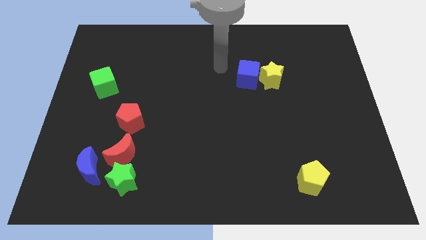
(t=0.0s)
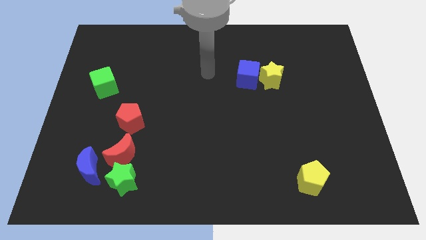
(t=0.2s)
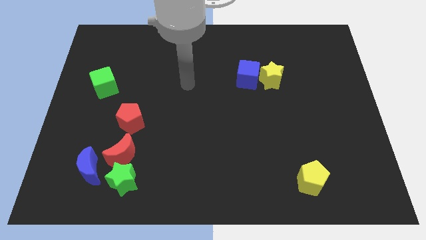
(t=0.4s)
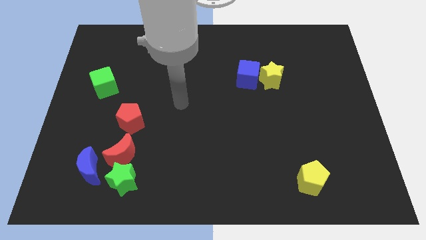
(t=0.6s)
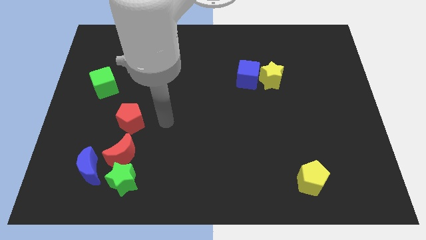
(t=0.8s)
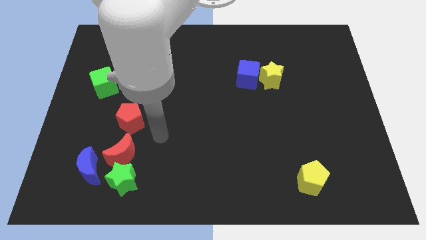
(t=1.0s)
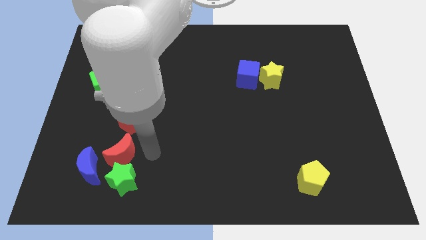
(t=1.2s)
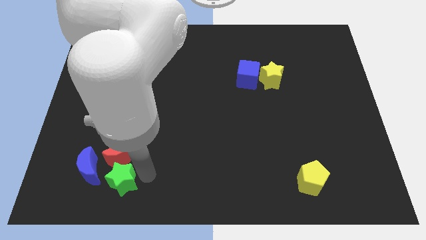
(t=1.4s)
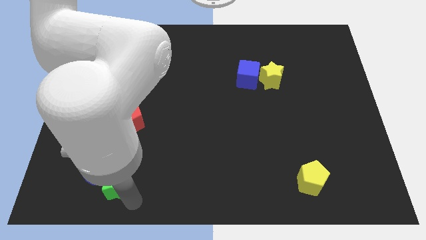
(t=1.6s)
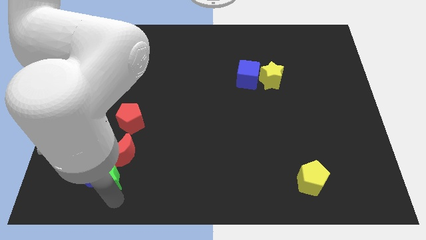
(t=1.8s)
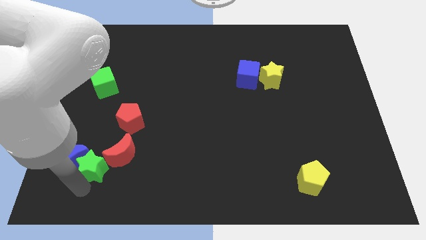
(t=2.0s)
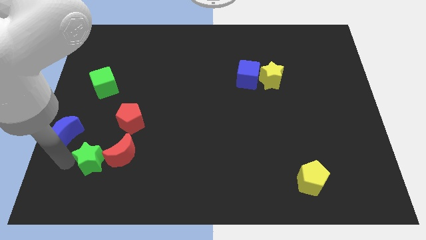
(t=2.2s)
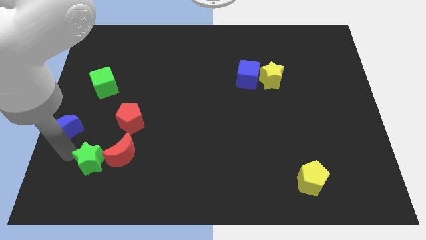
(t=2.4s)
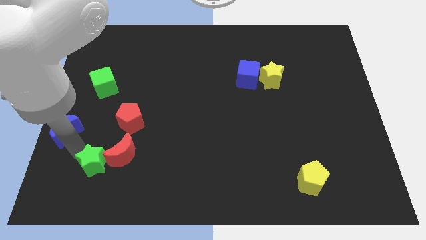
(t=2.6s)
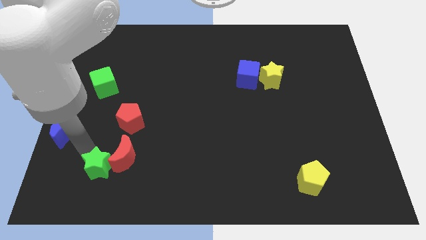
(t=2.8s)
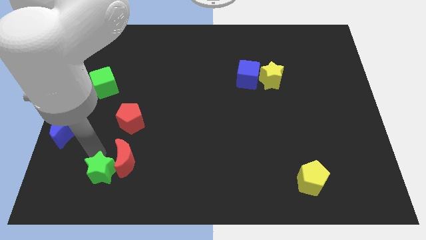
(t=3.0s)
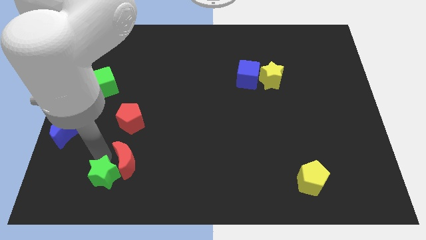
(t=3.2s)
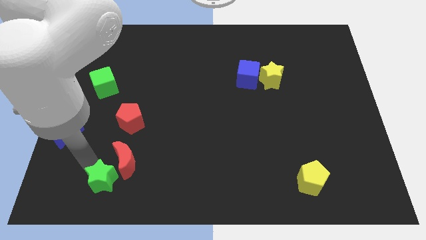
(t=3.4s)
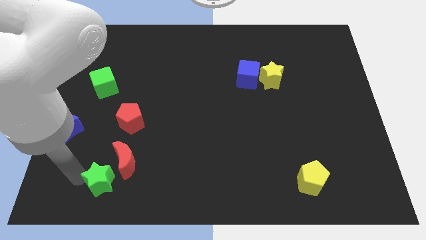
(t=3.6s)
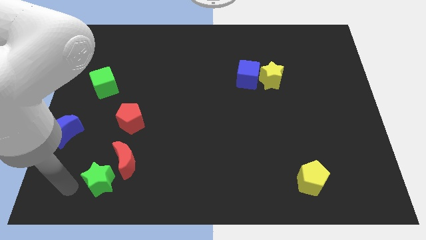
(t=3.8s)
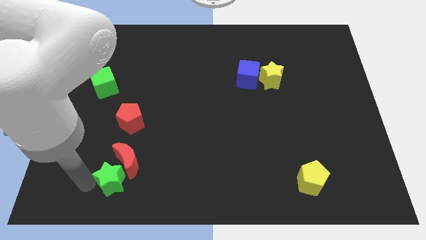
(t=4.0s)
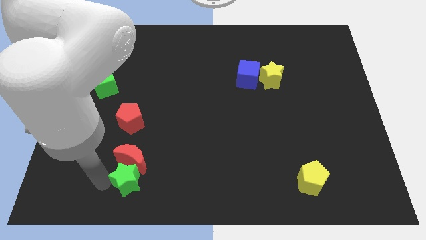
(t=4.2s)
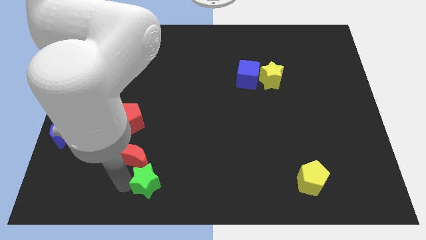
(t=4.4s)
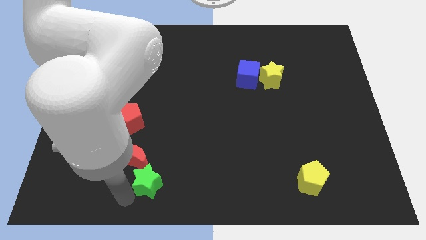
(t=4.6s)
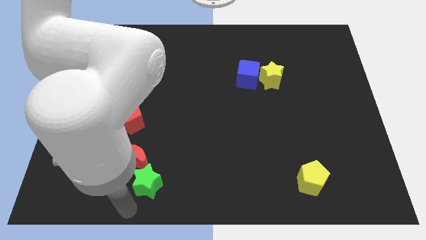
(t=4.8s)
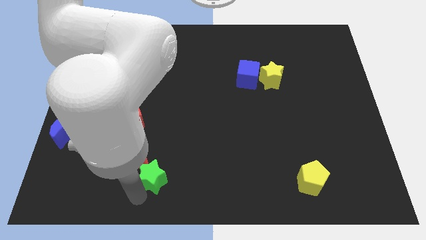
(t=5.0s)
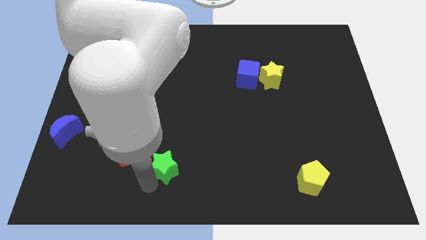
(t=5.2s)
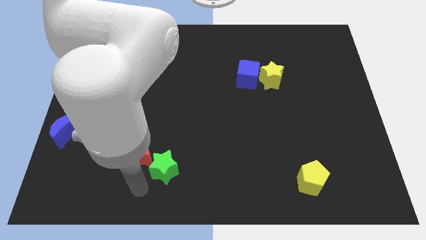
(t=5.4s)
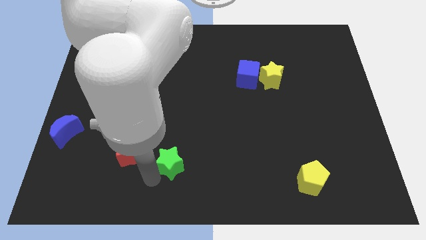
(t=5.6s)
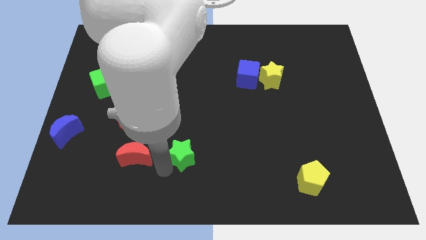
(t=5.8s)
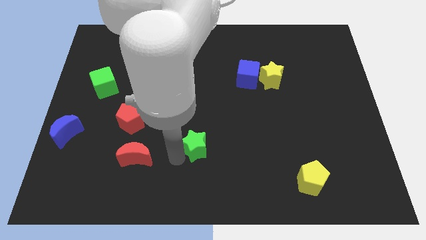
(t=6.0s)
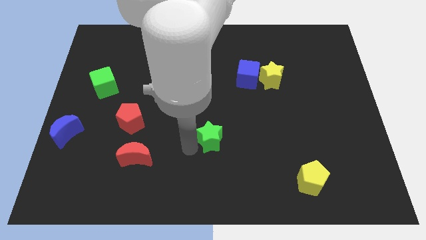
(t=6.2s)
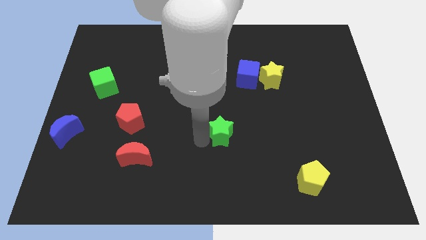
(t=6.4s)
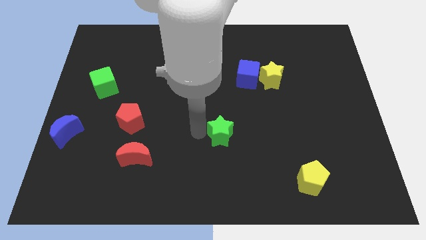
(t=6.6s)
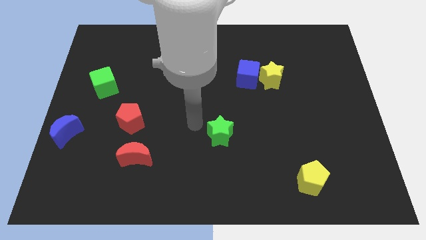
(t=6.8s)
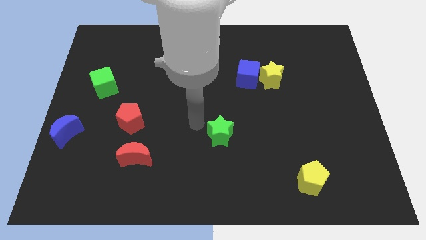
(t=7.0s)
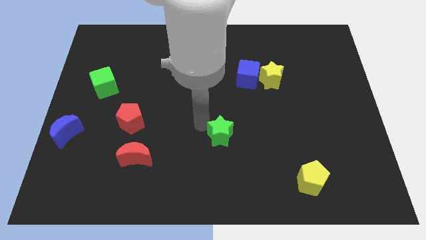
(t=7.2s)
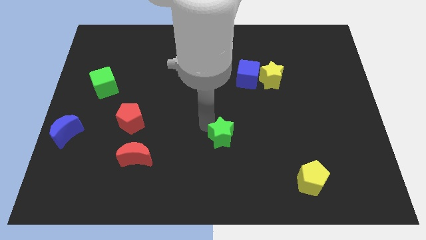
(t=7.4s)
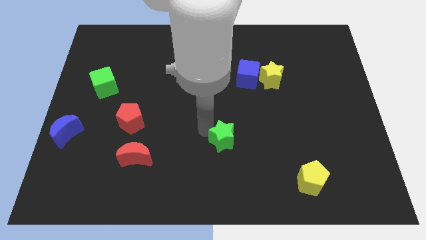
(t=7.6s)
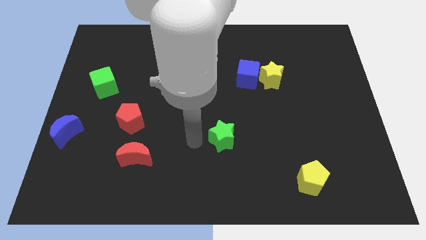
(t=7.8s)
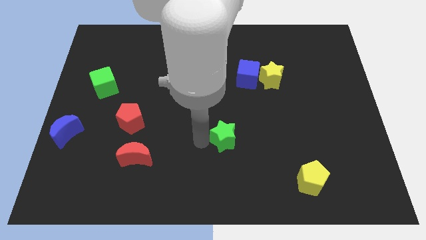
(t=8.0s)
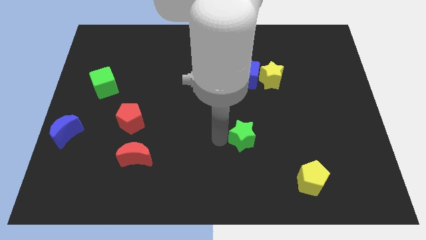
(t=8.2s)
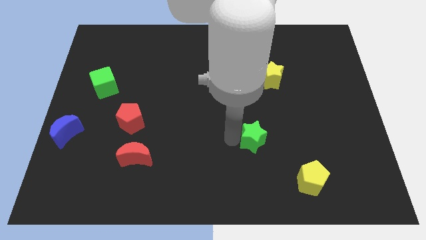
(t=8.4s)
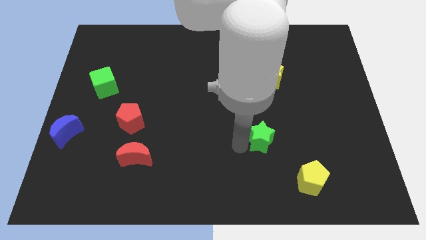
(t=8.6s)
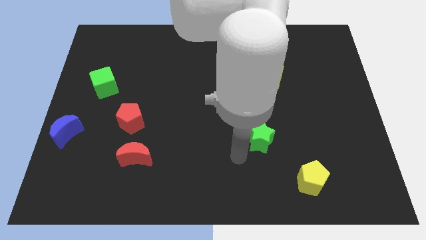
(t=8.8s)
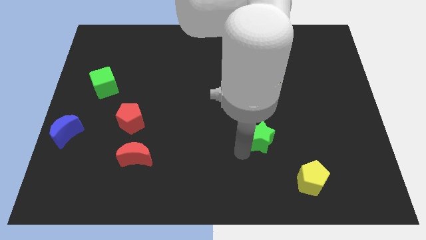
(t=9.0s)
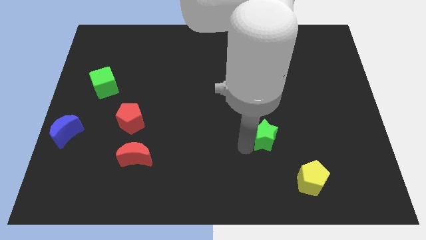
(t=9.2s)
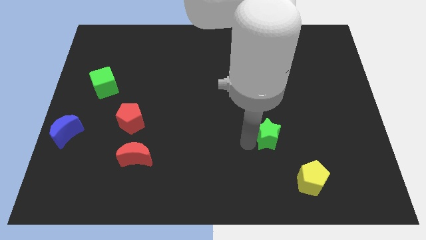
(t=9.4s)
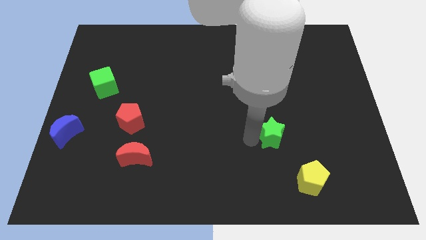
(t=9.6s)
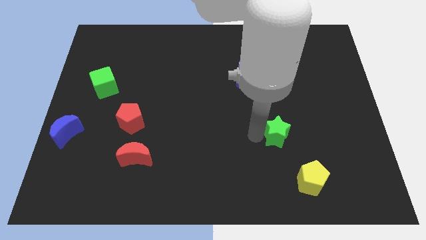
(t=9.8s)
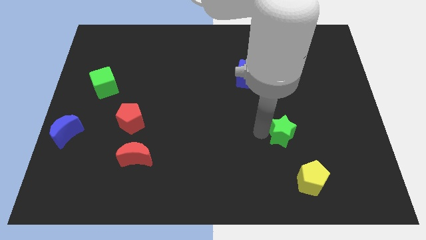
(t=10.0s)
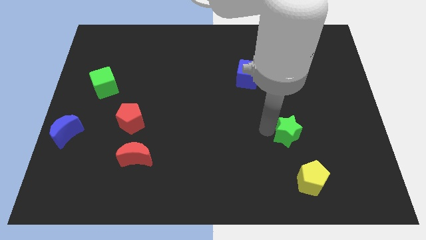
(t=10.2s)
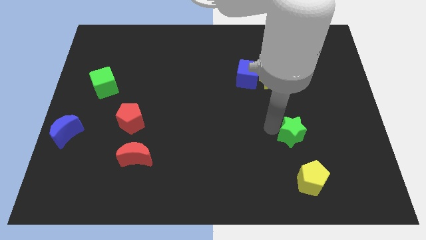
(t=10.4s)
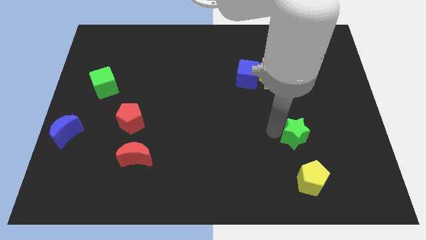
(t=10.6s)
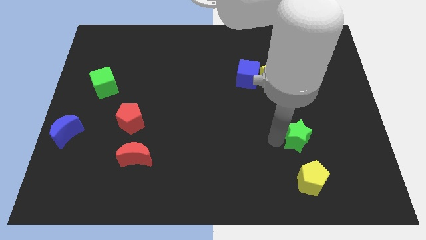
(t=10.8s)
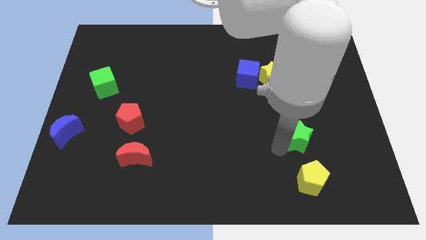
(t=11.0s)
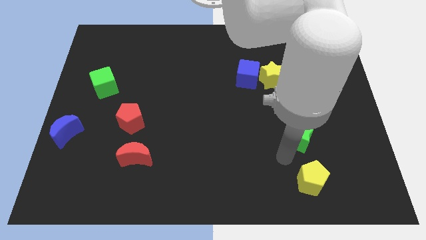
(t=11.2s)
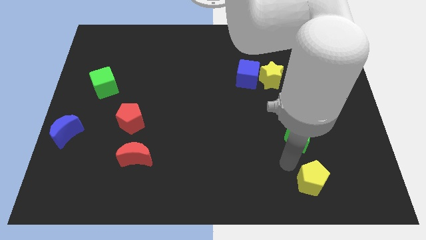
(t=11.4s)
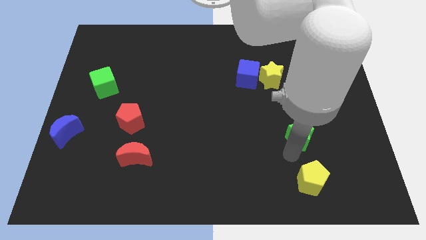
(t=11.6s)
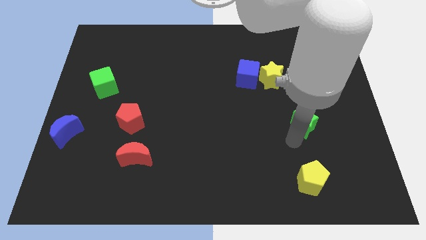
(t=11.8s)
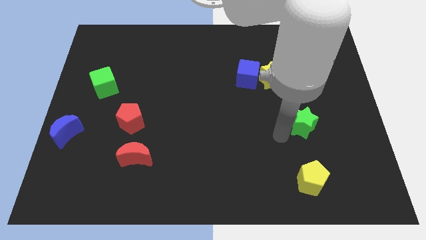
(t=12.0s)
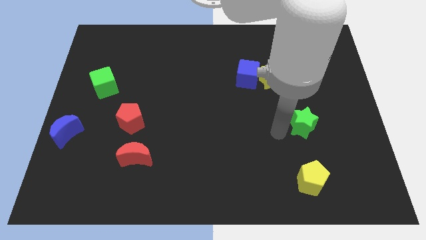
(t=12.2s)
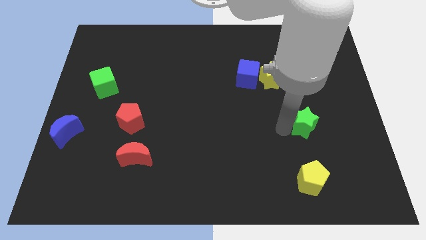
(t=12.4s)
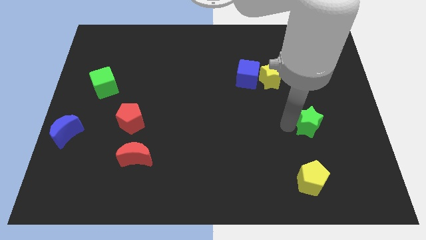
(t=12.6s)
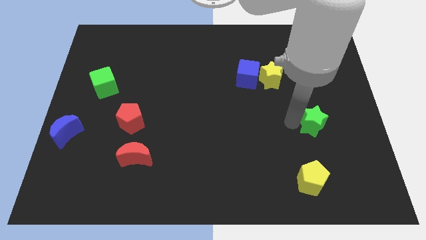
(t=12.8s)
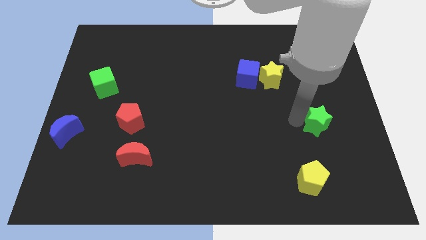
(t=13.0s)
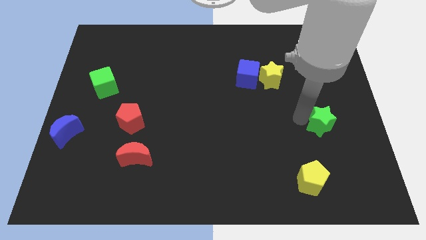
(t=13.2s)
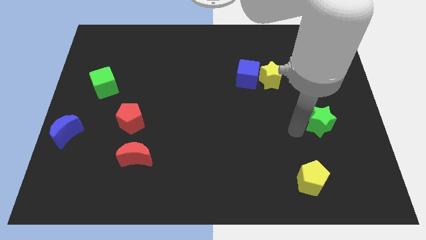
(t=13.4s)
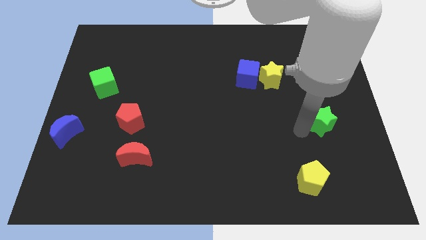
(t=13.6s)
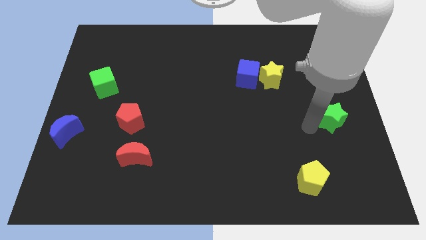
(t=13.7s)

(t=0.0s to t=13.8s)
push the green star to the right side

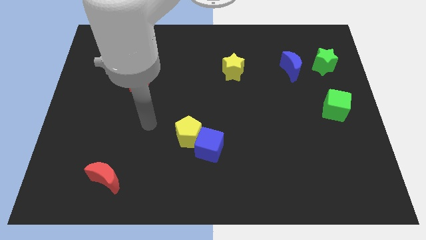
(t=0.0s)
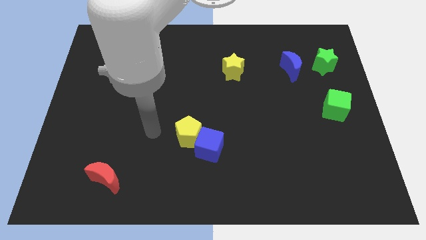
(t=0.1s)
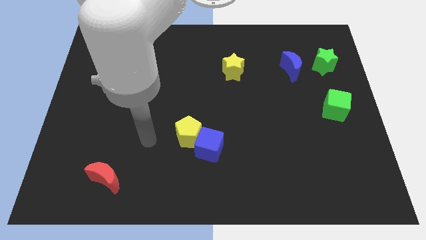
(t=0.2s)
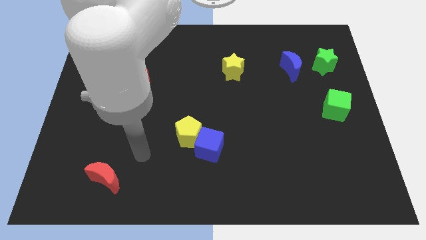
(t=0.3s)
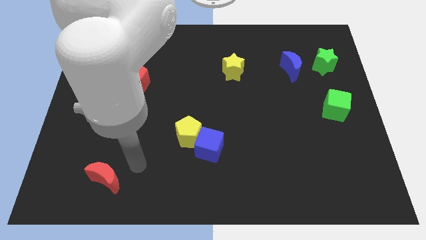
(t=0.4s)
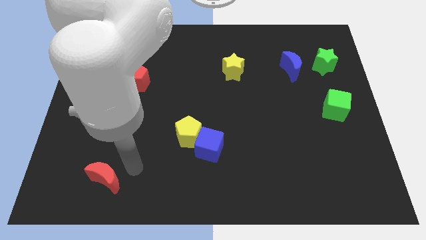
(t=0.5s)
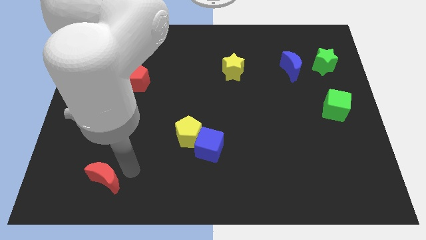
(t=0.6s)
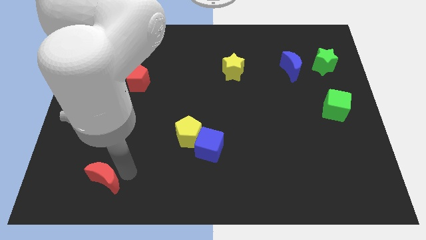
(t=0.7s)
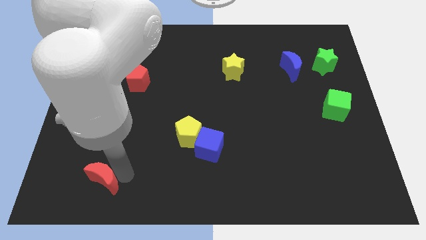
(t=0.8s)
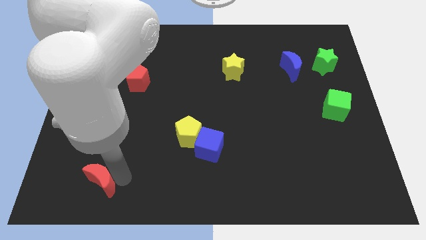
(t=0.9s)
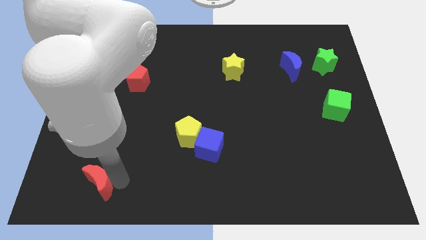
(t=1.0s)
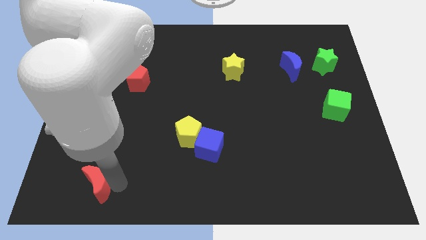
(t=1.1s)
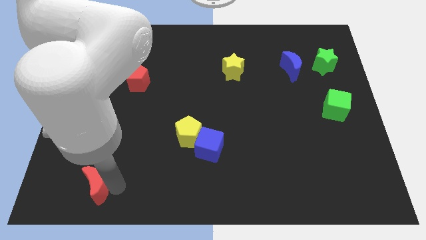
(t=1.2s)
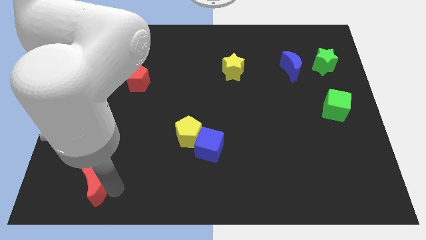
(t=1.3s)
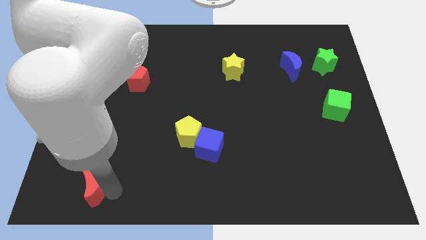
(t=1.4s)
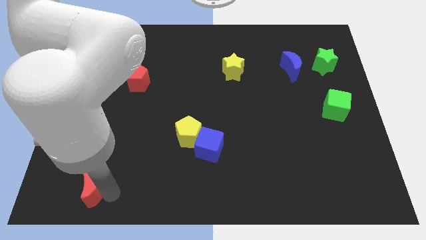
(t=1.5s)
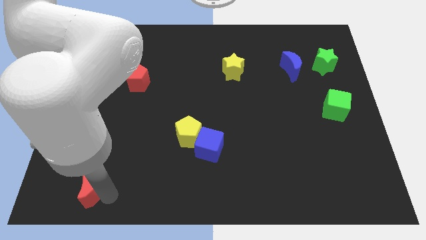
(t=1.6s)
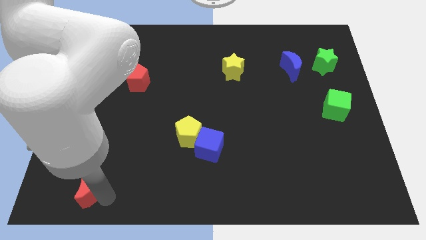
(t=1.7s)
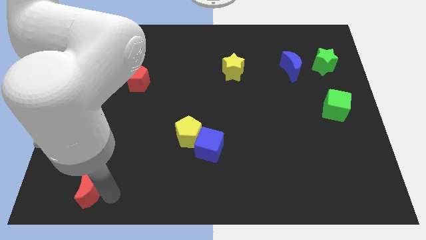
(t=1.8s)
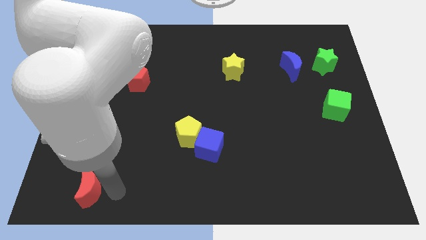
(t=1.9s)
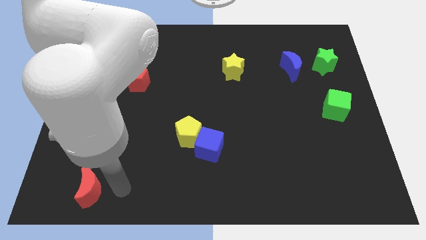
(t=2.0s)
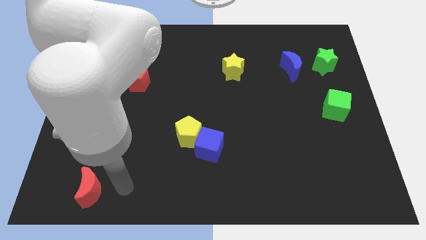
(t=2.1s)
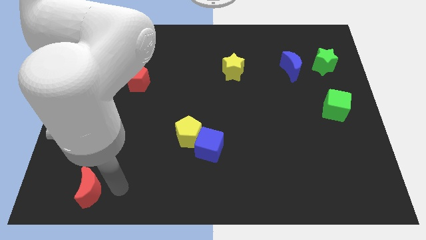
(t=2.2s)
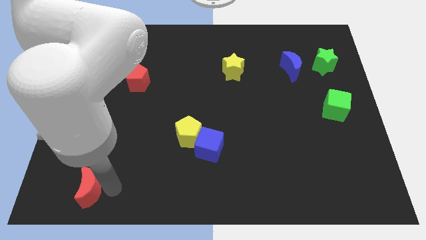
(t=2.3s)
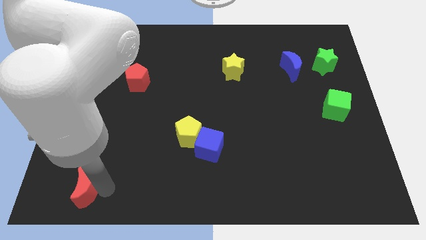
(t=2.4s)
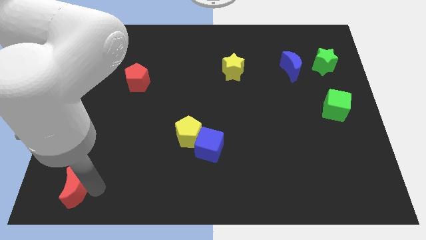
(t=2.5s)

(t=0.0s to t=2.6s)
move the red moon to the bottom left
